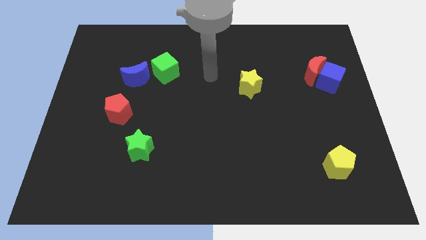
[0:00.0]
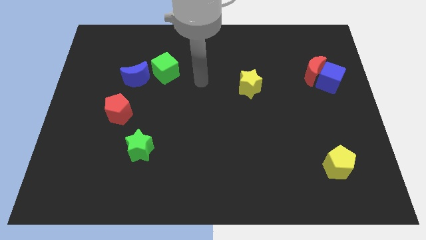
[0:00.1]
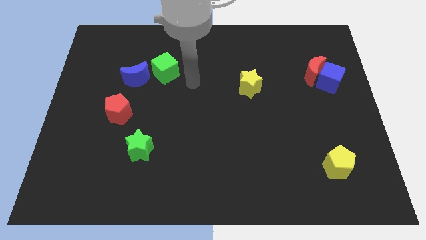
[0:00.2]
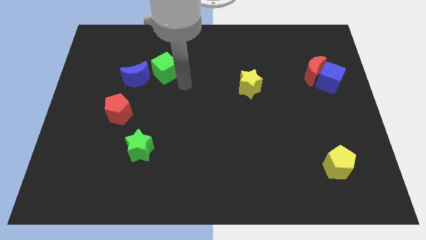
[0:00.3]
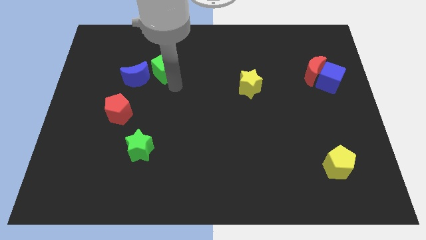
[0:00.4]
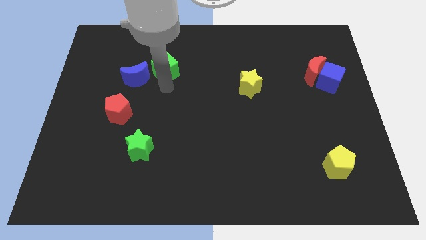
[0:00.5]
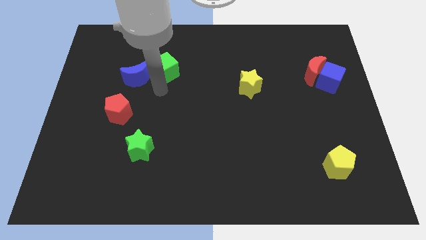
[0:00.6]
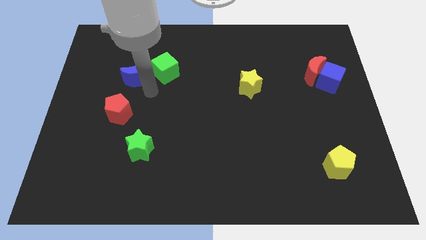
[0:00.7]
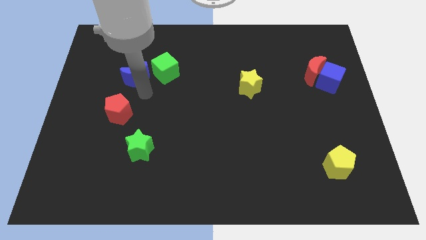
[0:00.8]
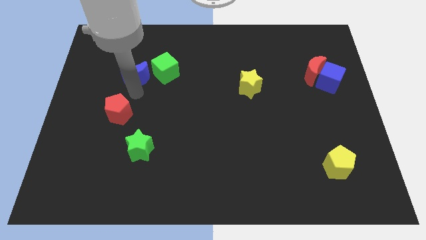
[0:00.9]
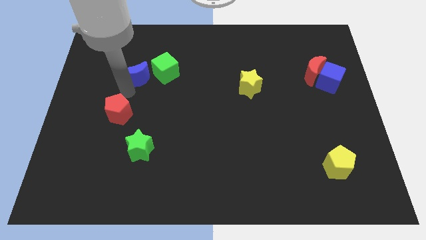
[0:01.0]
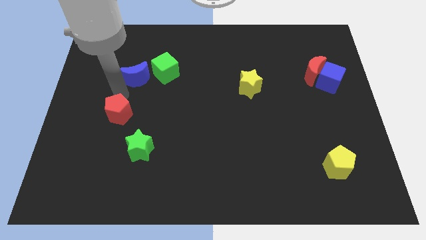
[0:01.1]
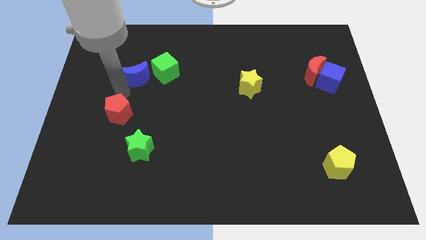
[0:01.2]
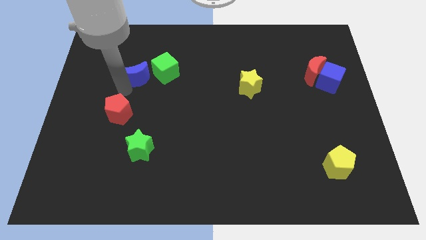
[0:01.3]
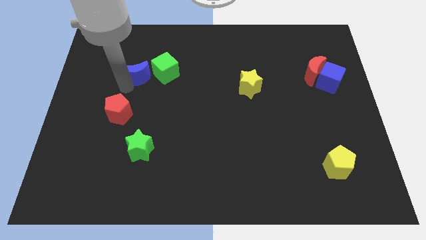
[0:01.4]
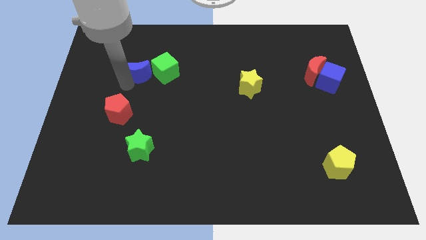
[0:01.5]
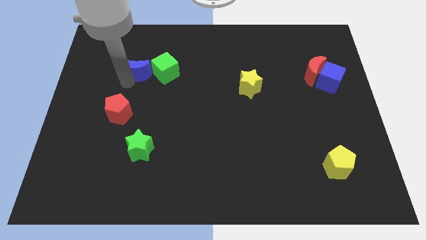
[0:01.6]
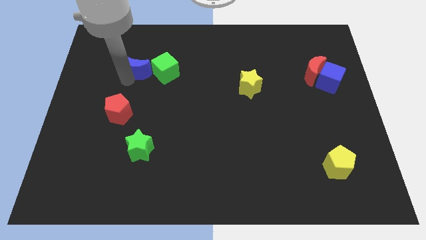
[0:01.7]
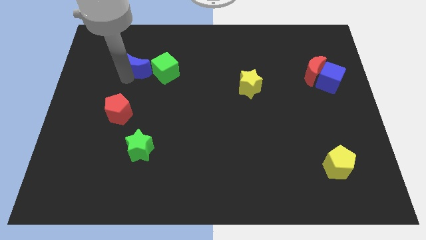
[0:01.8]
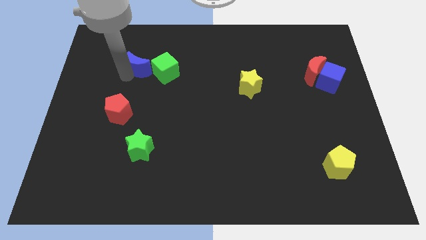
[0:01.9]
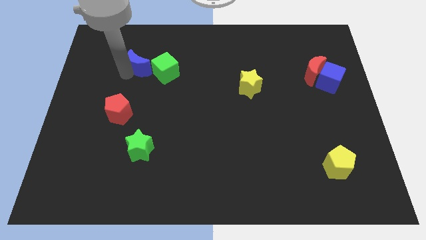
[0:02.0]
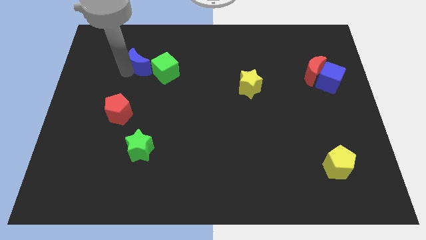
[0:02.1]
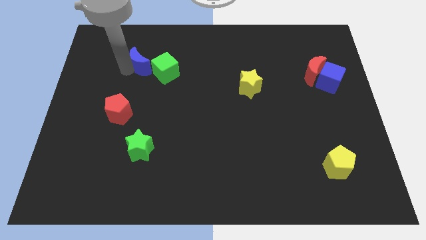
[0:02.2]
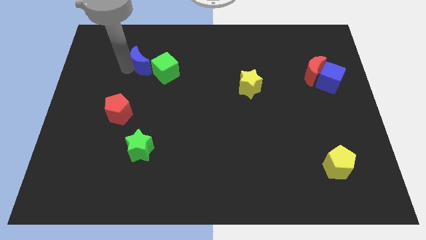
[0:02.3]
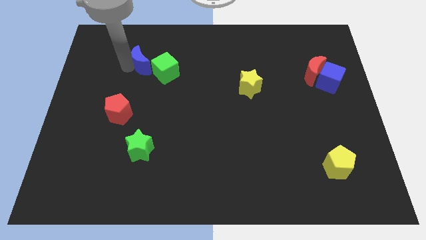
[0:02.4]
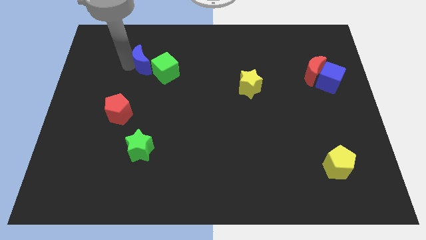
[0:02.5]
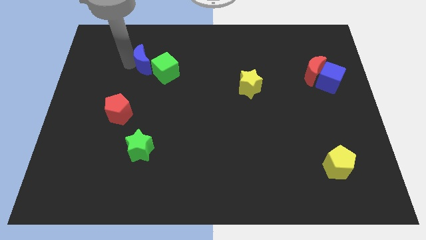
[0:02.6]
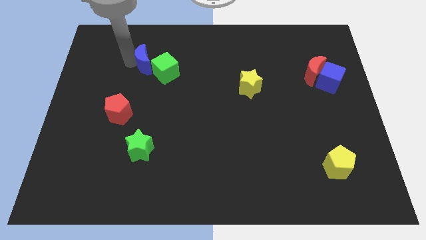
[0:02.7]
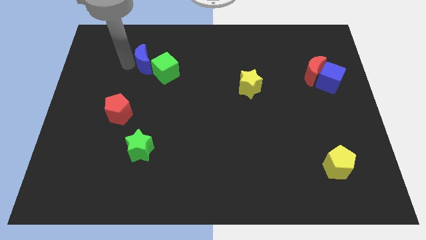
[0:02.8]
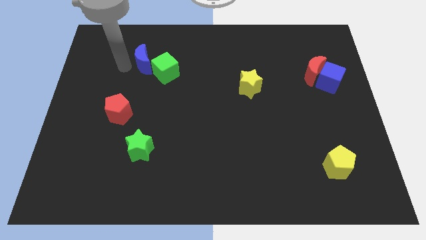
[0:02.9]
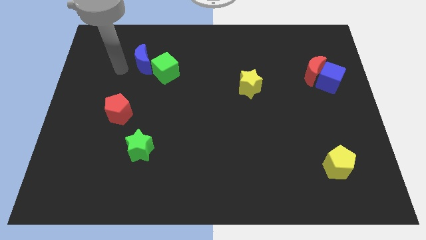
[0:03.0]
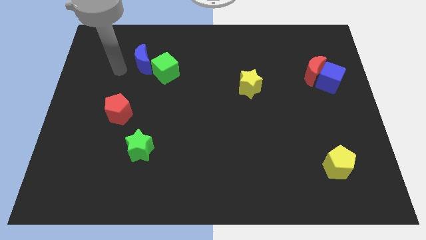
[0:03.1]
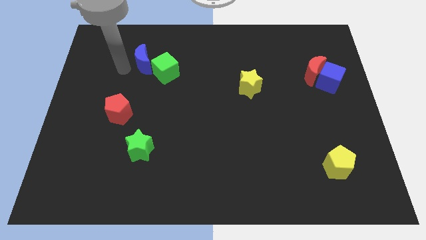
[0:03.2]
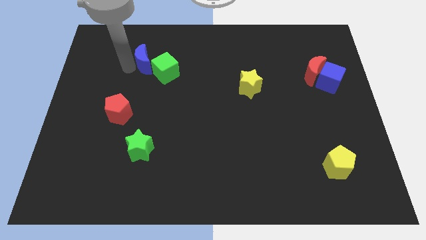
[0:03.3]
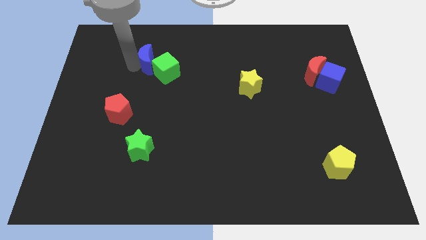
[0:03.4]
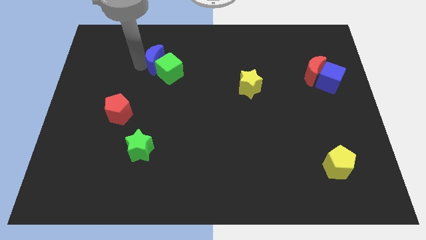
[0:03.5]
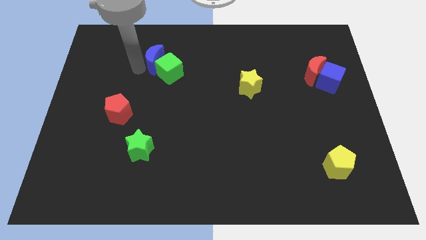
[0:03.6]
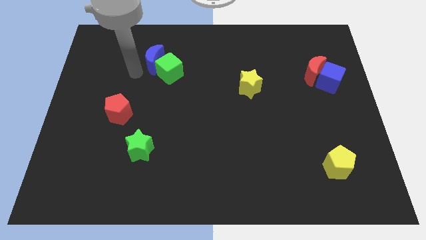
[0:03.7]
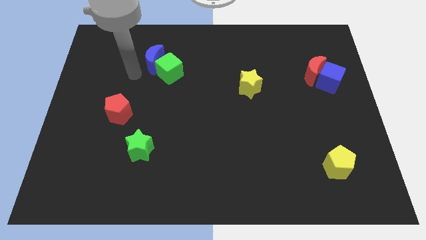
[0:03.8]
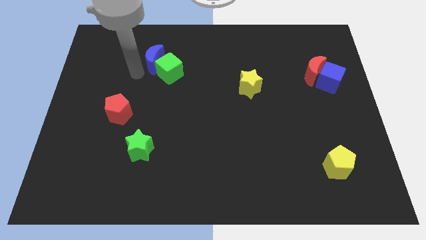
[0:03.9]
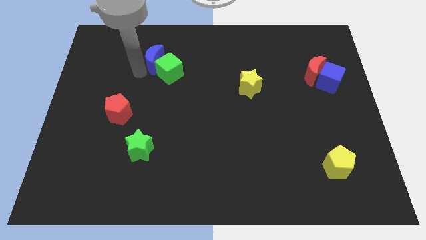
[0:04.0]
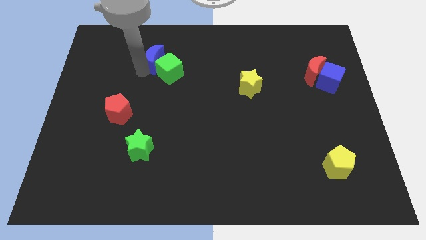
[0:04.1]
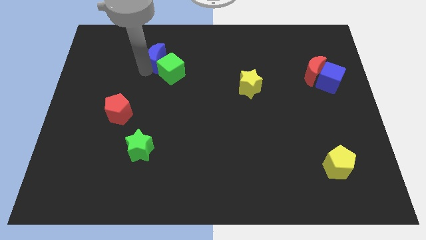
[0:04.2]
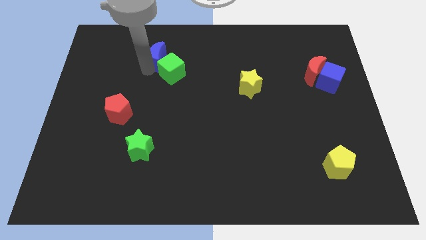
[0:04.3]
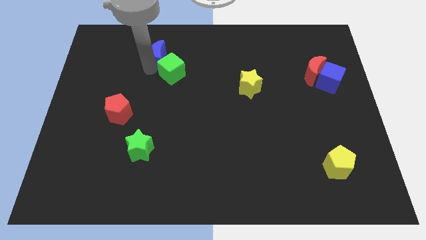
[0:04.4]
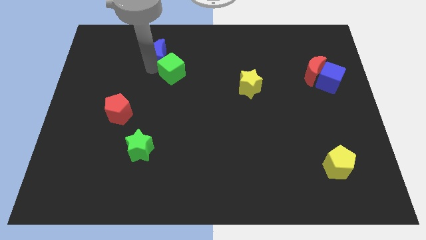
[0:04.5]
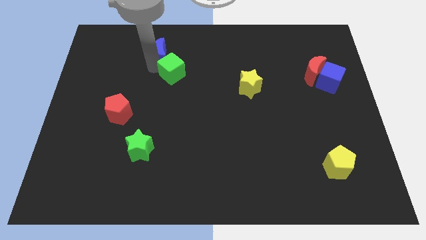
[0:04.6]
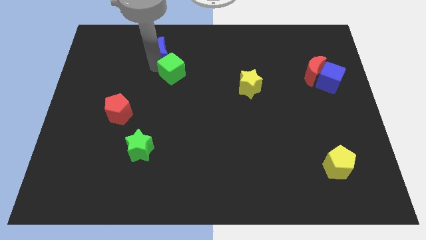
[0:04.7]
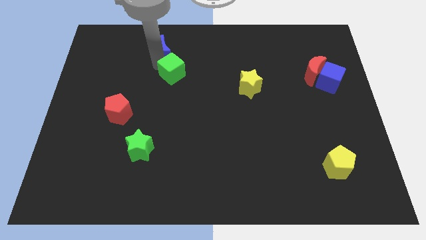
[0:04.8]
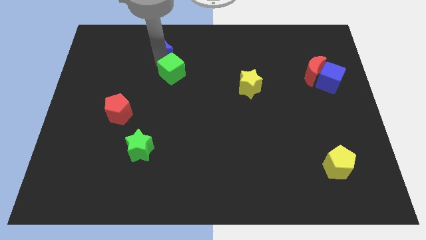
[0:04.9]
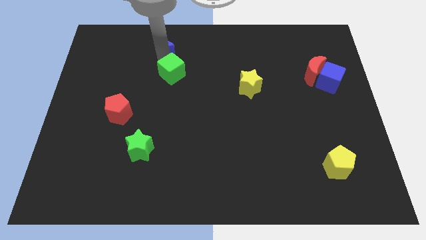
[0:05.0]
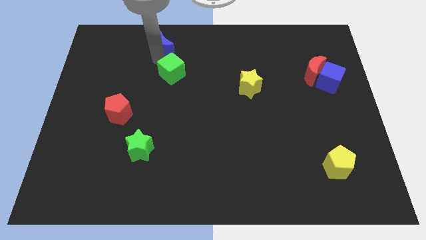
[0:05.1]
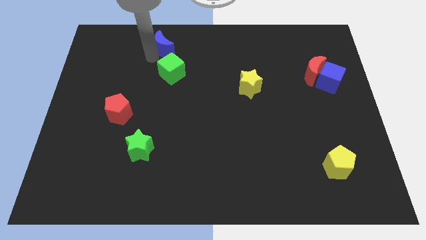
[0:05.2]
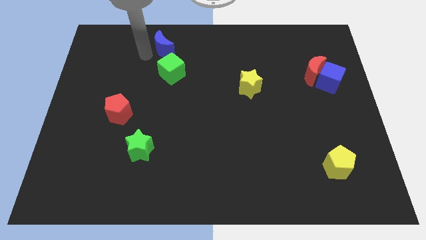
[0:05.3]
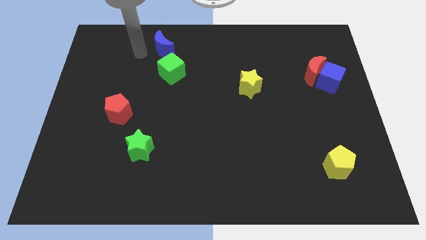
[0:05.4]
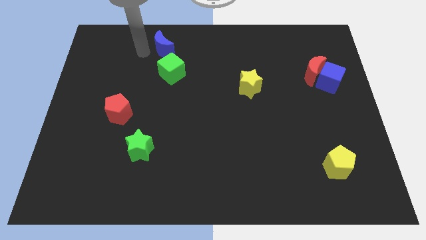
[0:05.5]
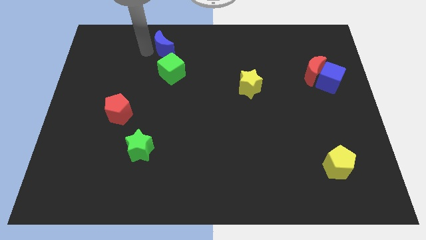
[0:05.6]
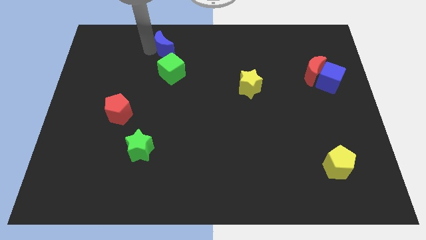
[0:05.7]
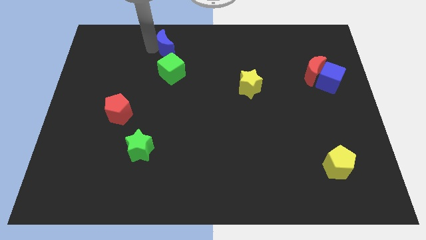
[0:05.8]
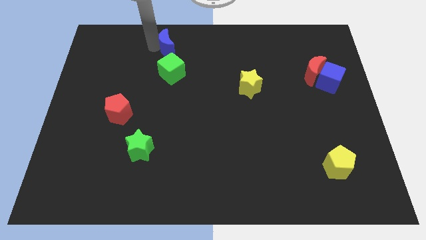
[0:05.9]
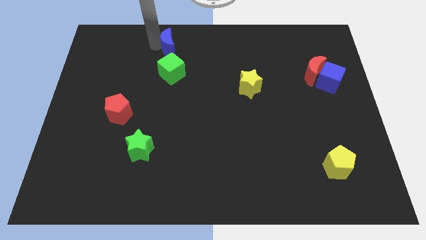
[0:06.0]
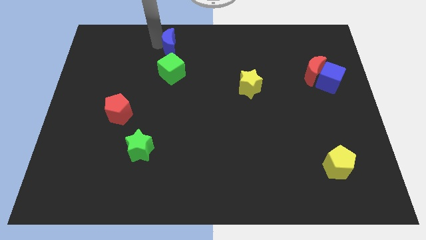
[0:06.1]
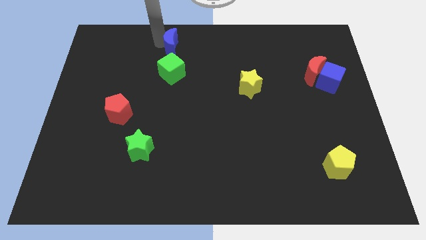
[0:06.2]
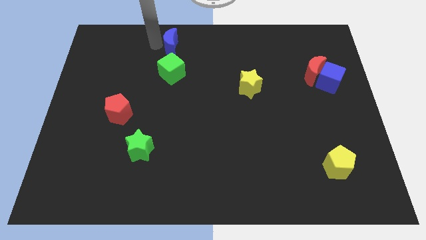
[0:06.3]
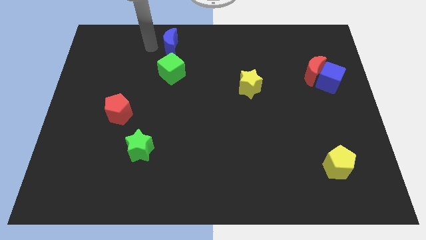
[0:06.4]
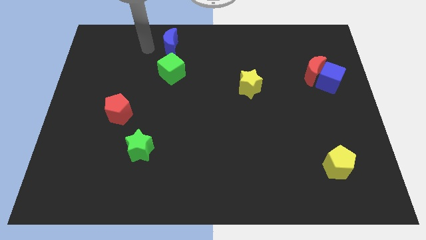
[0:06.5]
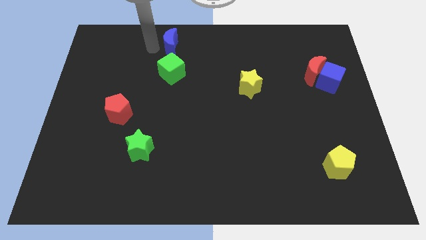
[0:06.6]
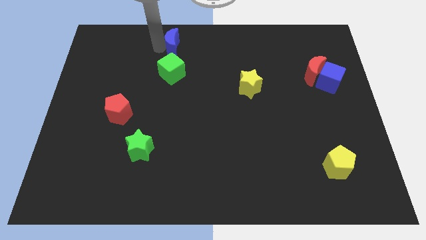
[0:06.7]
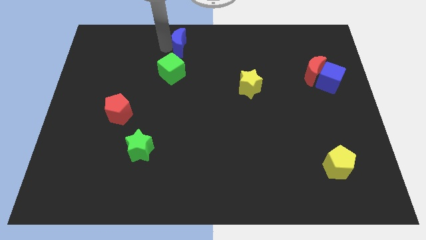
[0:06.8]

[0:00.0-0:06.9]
push the blue moon to the top

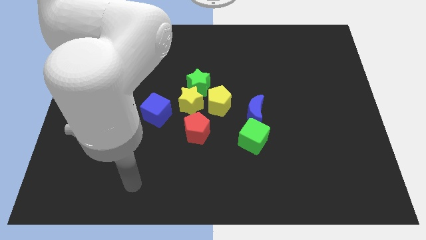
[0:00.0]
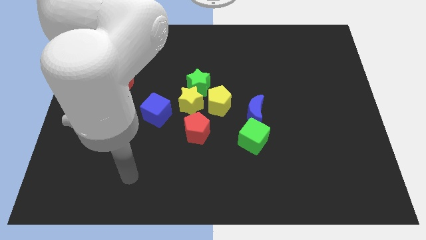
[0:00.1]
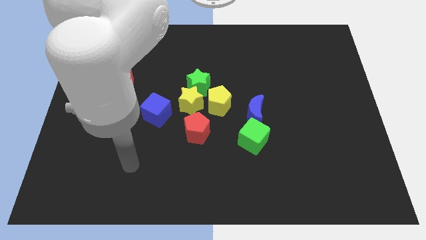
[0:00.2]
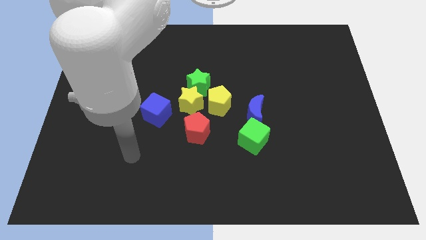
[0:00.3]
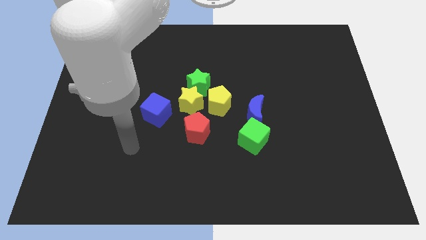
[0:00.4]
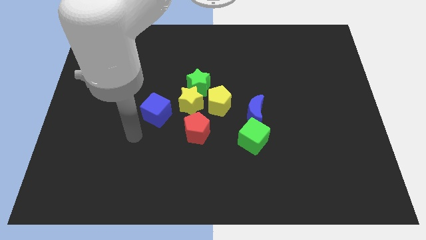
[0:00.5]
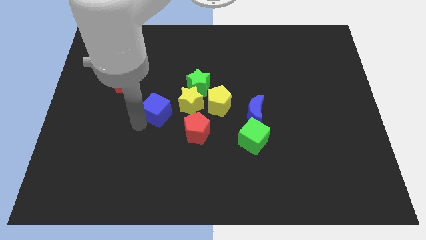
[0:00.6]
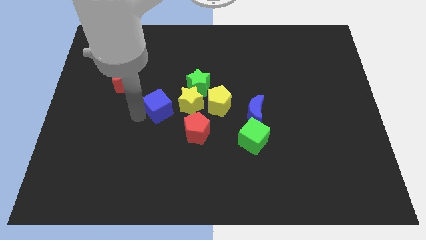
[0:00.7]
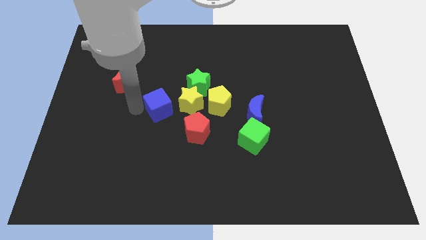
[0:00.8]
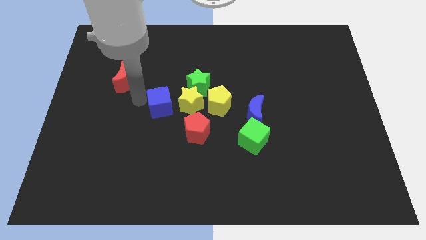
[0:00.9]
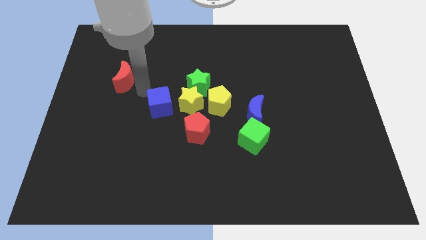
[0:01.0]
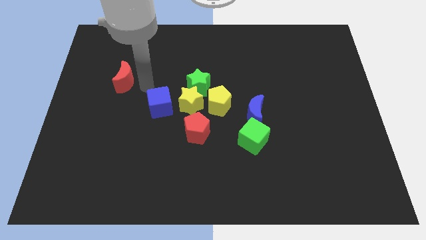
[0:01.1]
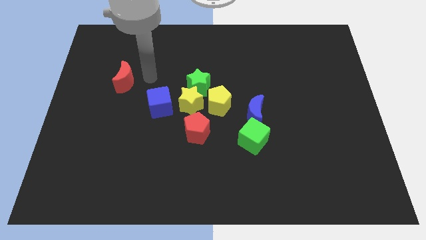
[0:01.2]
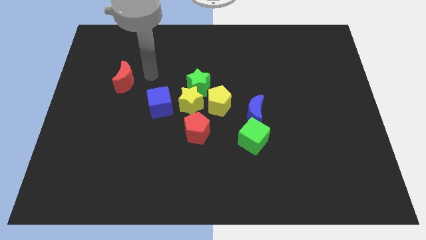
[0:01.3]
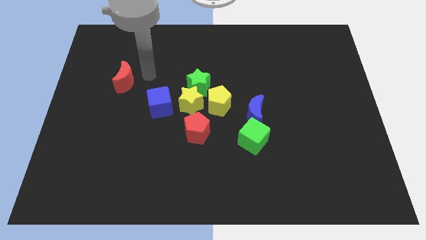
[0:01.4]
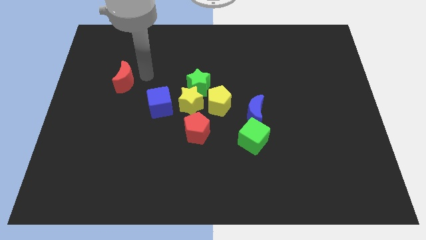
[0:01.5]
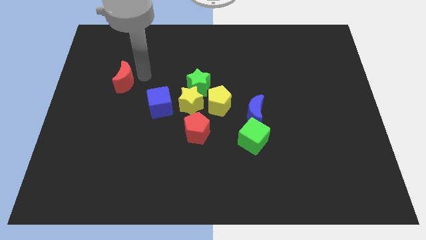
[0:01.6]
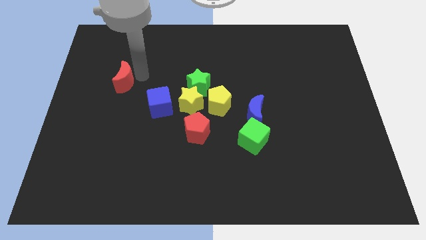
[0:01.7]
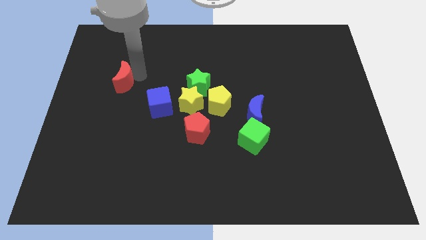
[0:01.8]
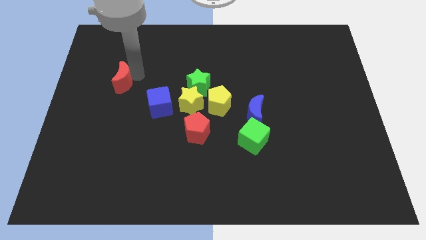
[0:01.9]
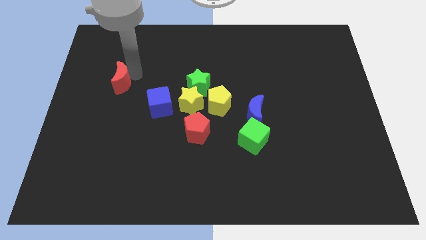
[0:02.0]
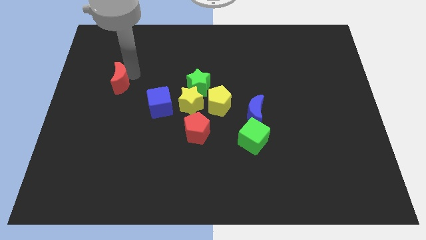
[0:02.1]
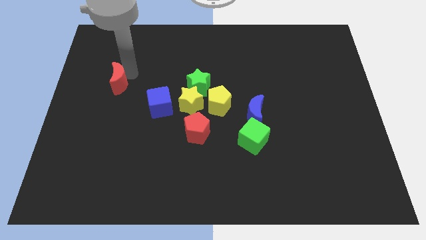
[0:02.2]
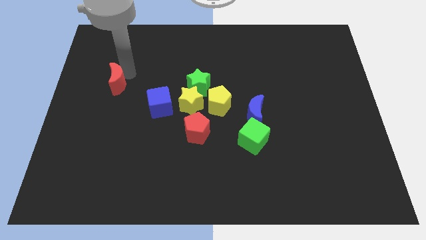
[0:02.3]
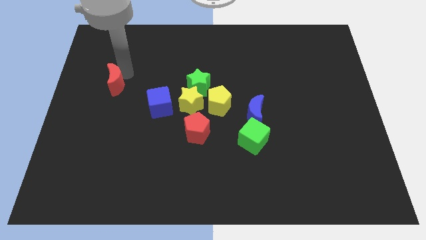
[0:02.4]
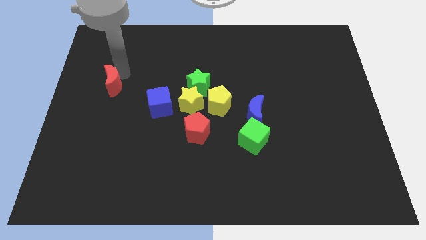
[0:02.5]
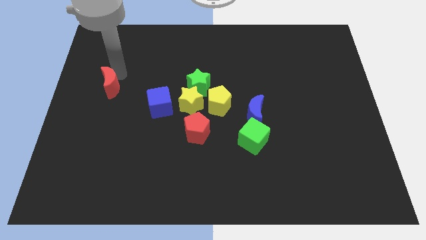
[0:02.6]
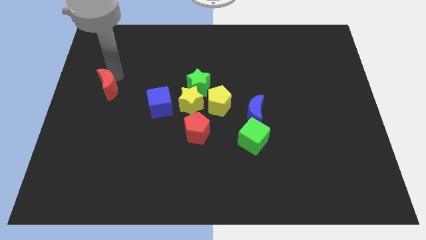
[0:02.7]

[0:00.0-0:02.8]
push the red moon to the left side of the board
